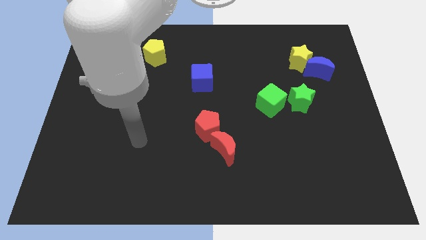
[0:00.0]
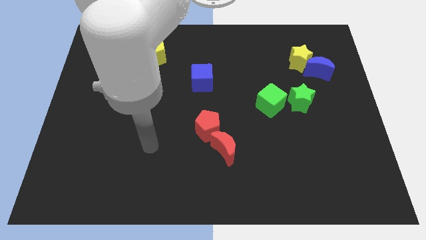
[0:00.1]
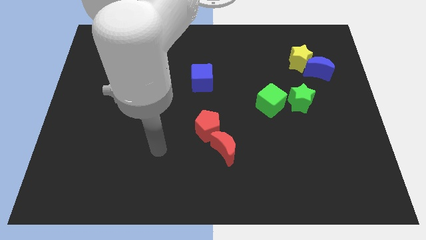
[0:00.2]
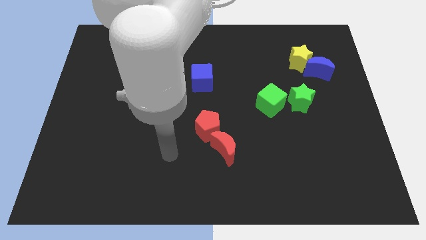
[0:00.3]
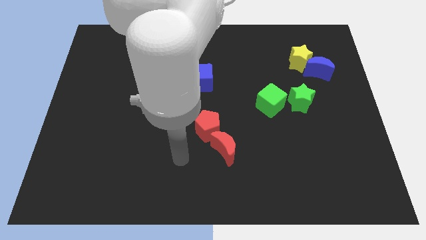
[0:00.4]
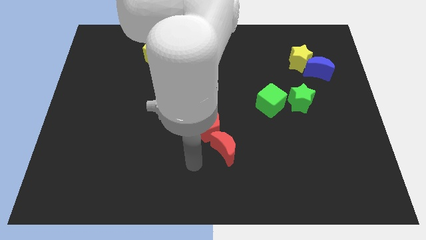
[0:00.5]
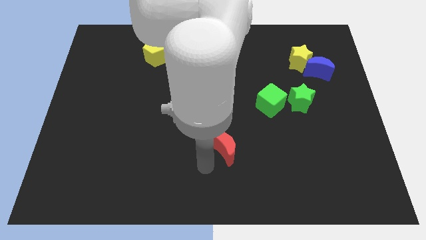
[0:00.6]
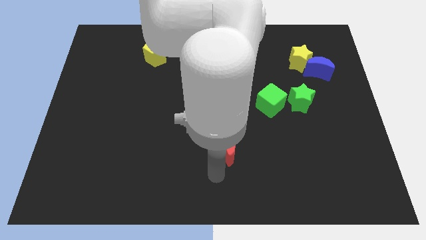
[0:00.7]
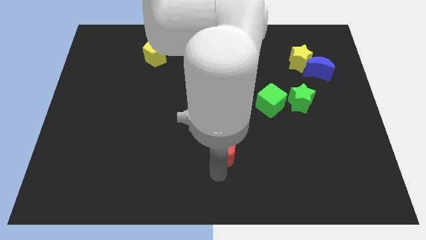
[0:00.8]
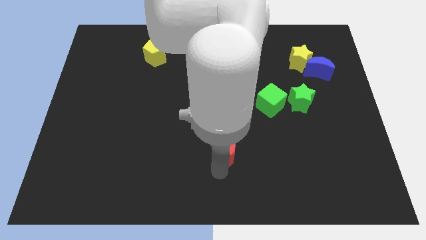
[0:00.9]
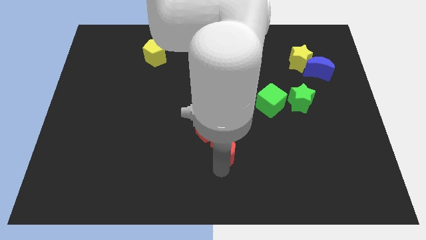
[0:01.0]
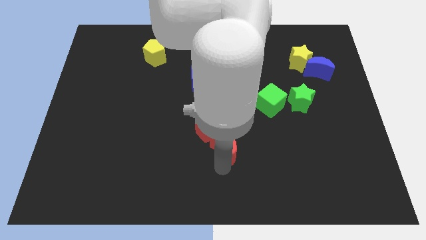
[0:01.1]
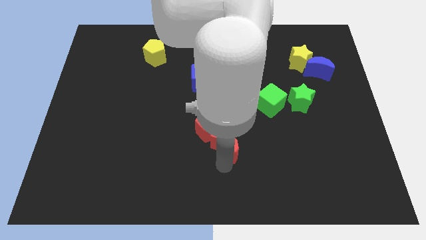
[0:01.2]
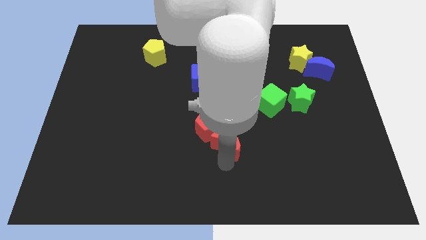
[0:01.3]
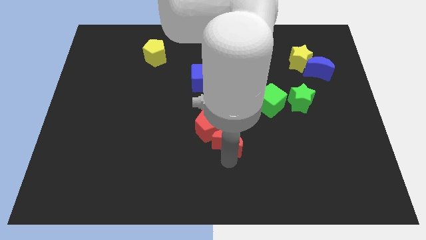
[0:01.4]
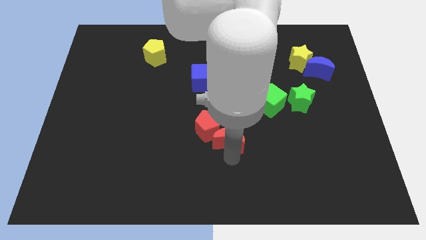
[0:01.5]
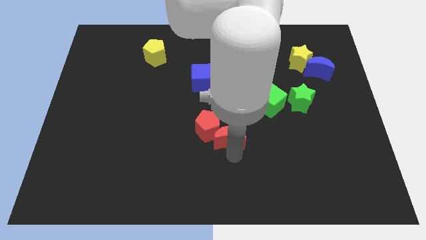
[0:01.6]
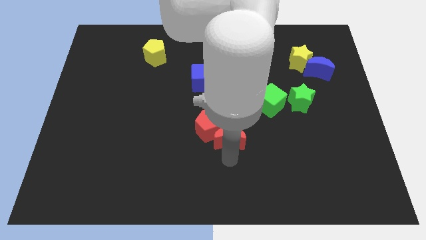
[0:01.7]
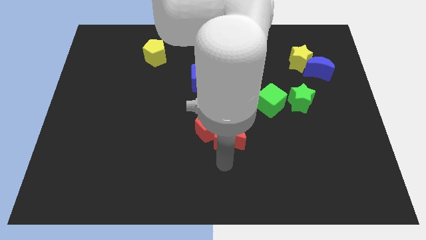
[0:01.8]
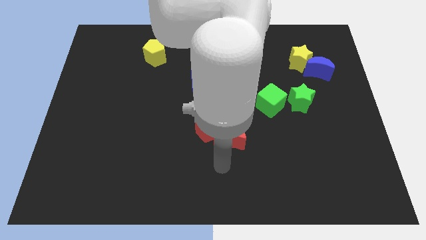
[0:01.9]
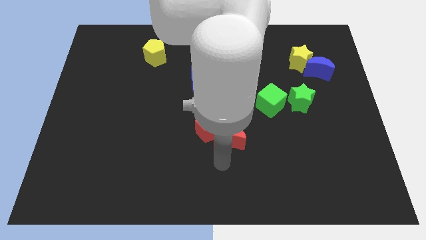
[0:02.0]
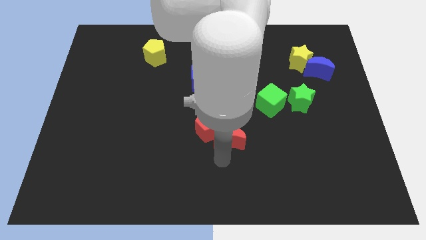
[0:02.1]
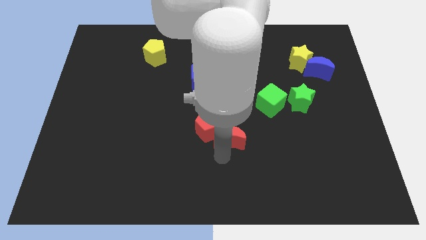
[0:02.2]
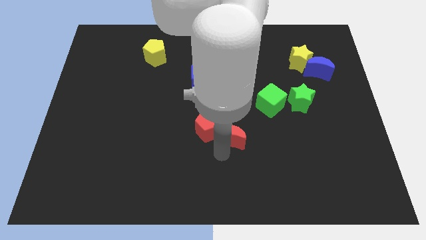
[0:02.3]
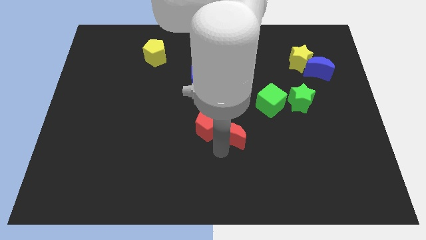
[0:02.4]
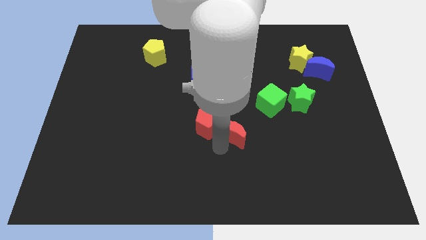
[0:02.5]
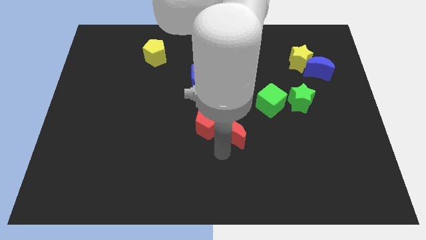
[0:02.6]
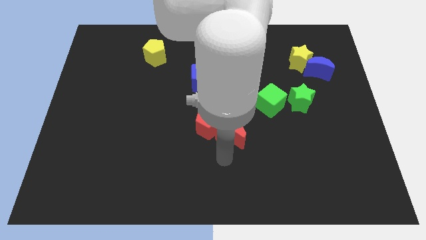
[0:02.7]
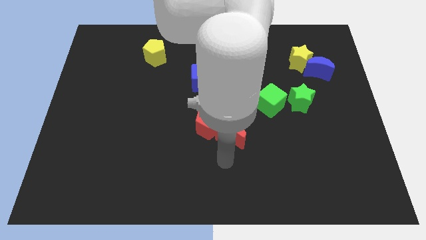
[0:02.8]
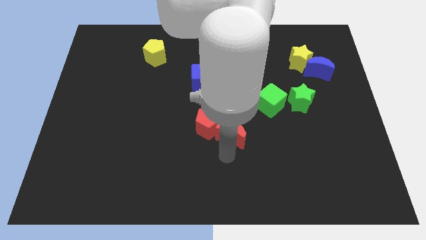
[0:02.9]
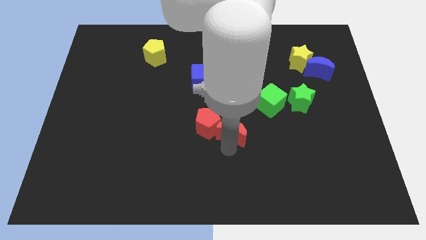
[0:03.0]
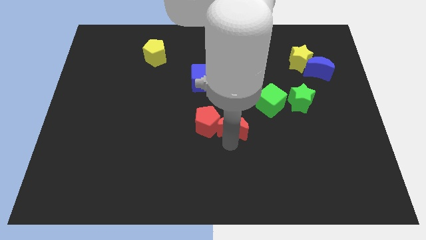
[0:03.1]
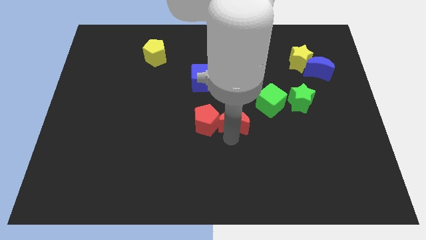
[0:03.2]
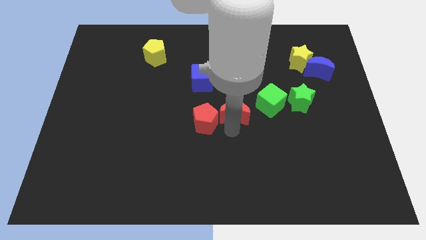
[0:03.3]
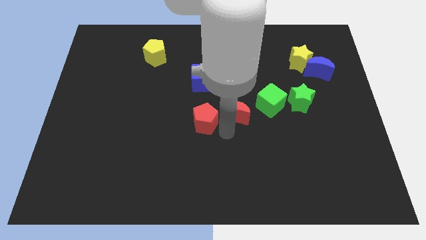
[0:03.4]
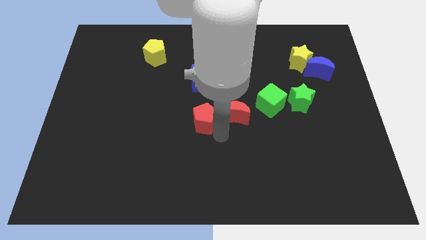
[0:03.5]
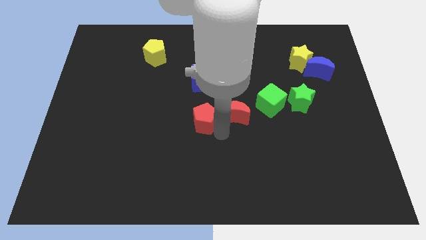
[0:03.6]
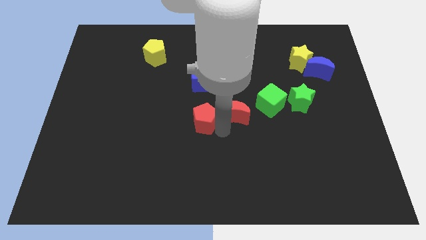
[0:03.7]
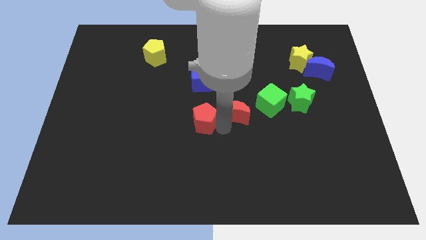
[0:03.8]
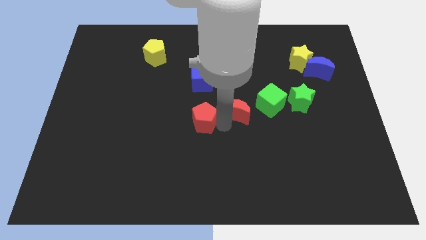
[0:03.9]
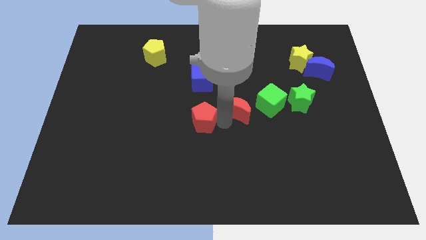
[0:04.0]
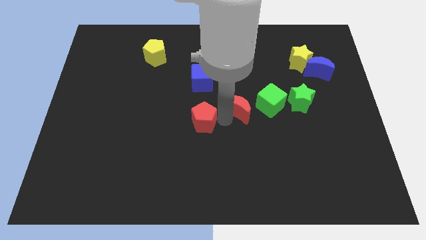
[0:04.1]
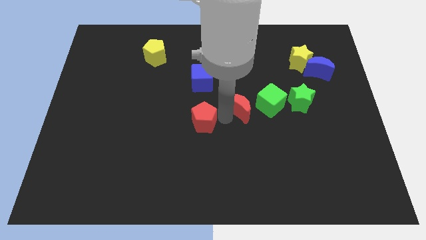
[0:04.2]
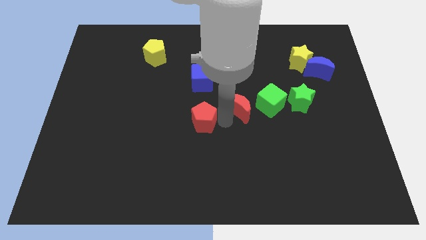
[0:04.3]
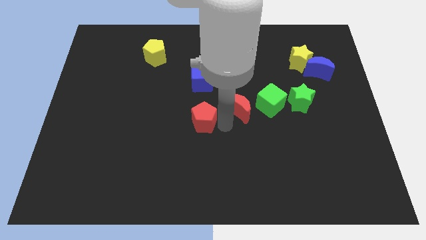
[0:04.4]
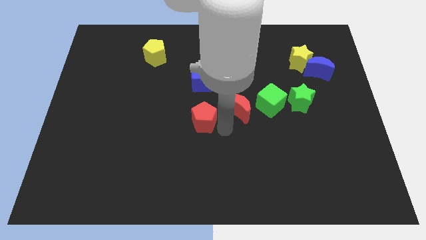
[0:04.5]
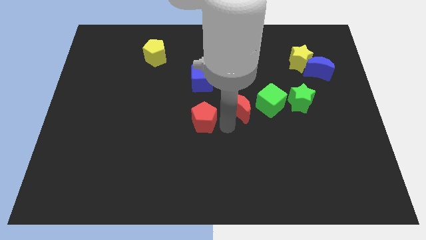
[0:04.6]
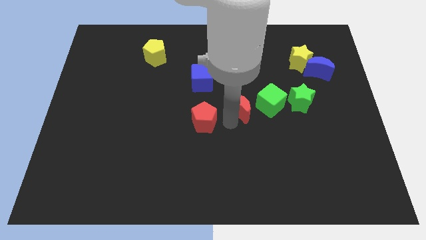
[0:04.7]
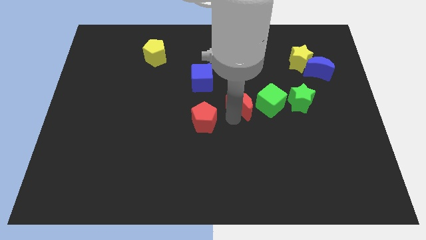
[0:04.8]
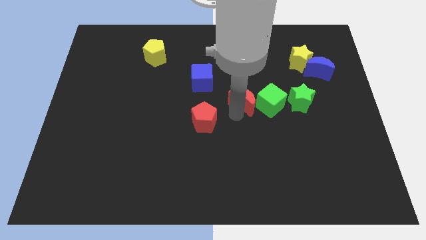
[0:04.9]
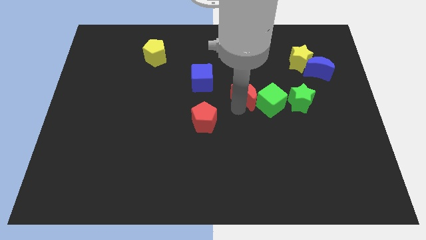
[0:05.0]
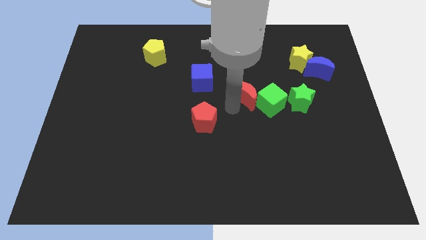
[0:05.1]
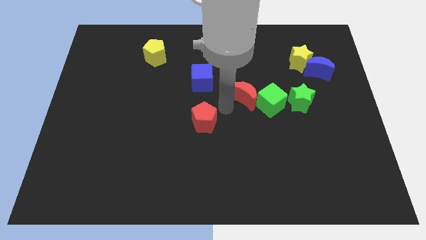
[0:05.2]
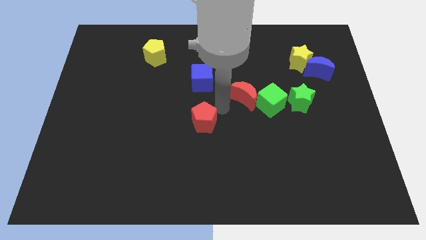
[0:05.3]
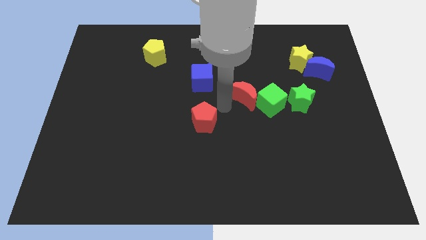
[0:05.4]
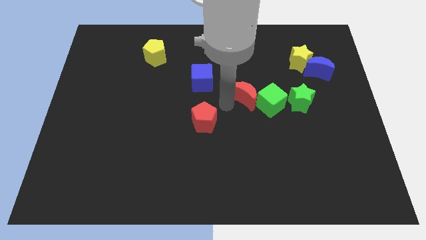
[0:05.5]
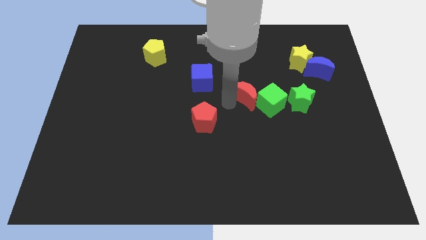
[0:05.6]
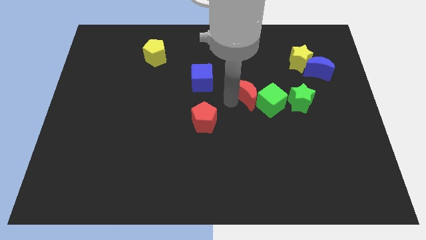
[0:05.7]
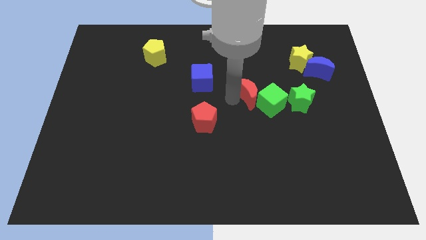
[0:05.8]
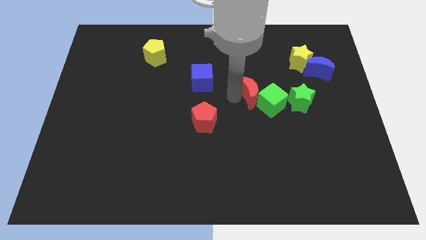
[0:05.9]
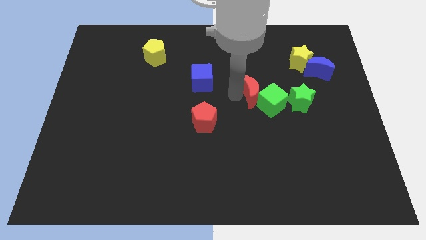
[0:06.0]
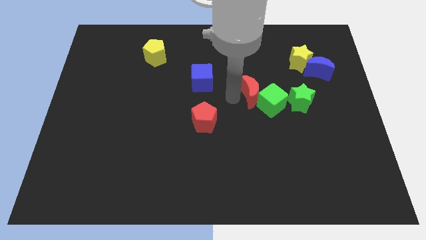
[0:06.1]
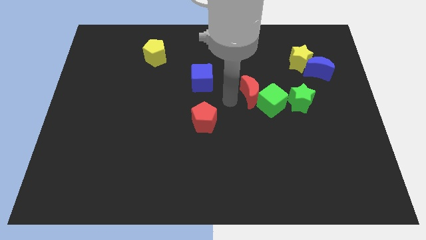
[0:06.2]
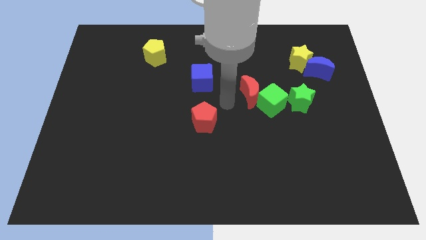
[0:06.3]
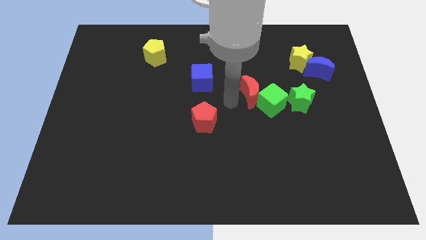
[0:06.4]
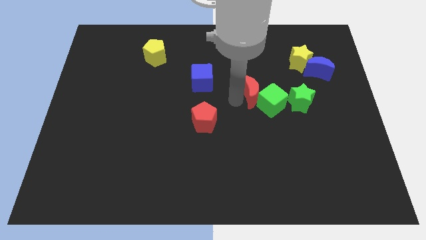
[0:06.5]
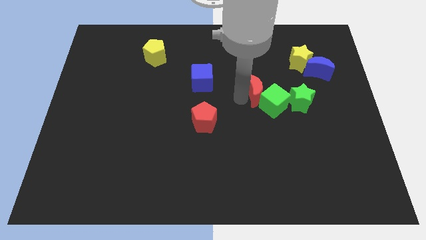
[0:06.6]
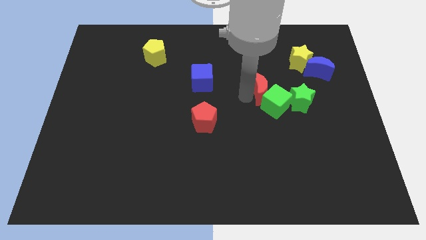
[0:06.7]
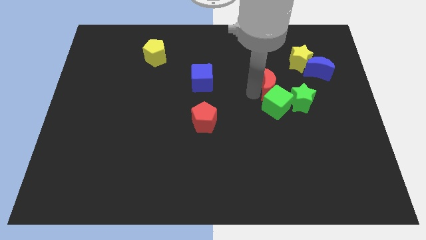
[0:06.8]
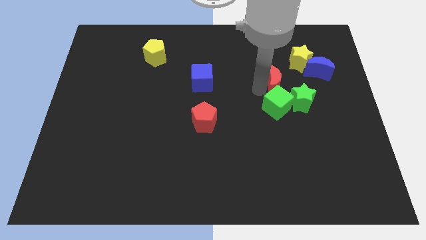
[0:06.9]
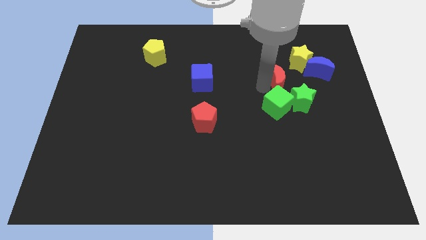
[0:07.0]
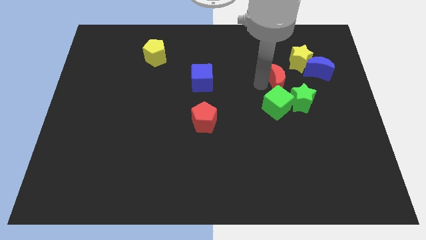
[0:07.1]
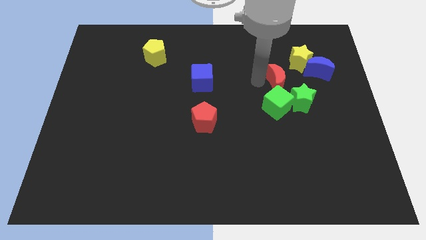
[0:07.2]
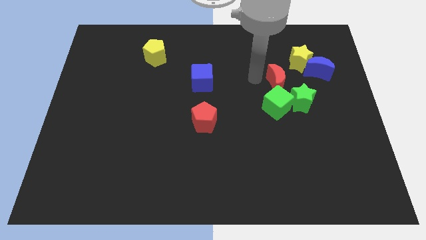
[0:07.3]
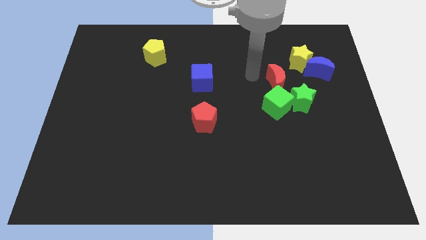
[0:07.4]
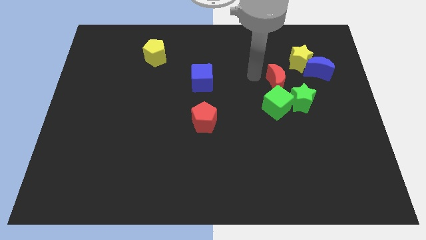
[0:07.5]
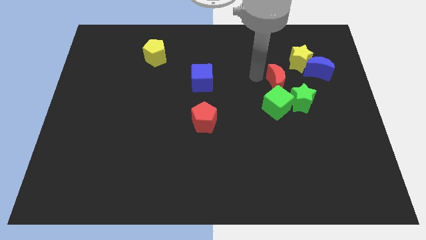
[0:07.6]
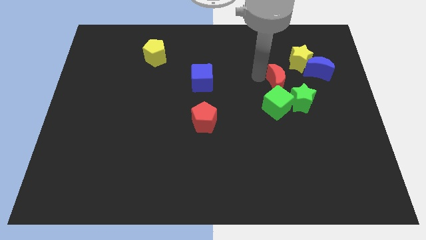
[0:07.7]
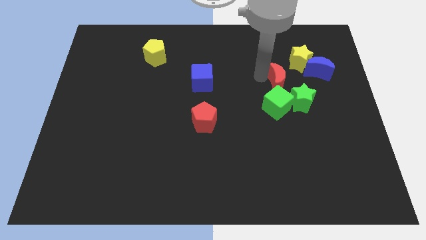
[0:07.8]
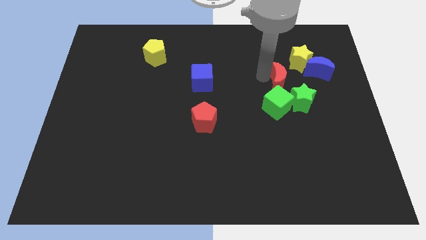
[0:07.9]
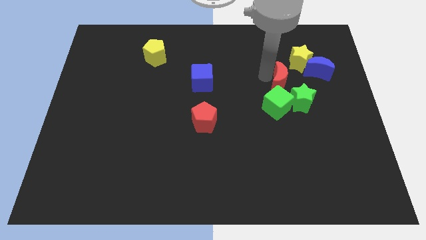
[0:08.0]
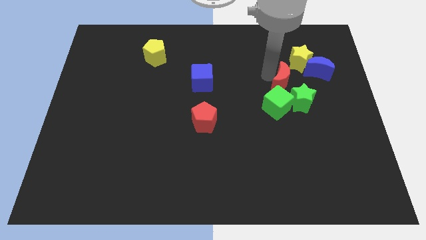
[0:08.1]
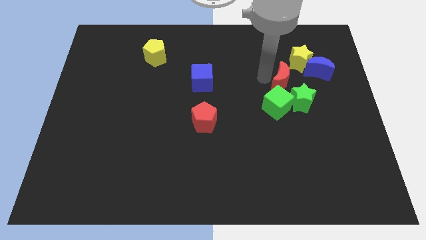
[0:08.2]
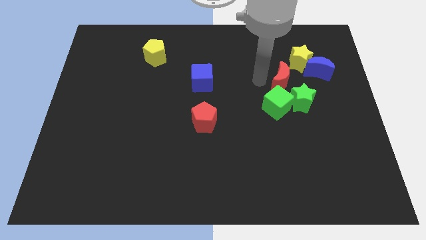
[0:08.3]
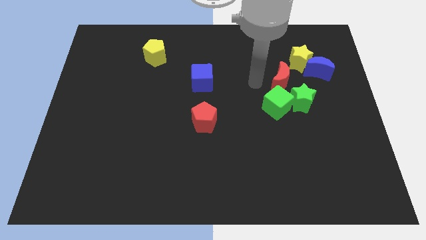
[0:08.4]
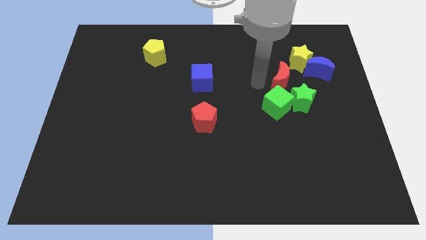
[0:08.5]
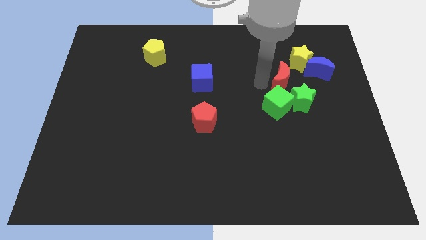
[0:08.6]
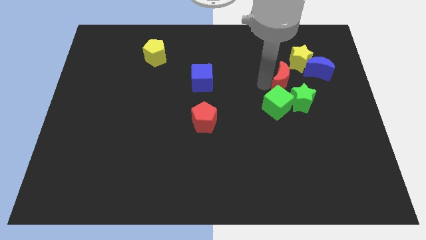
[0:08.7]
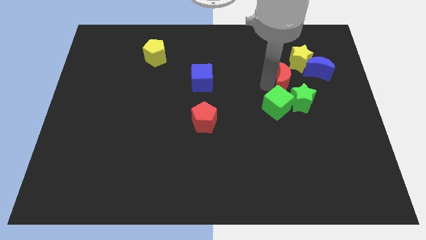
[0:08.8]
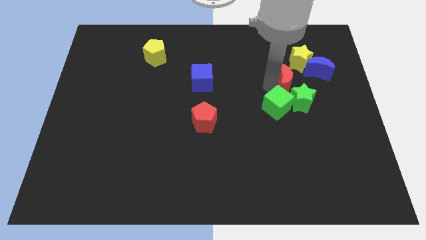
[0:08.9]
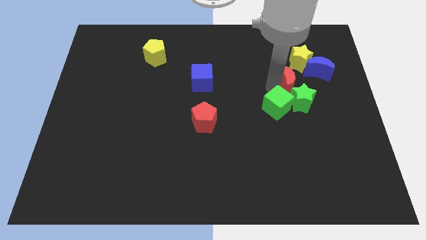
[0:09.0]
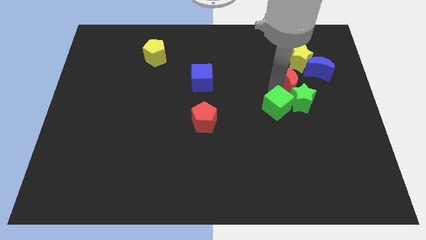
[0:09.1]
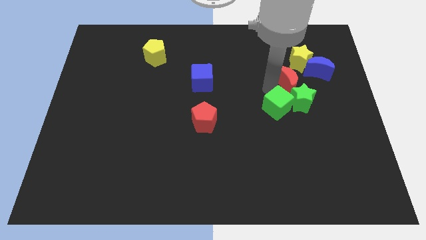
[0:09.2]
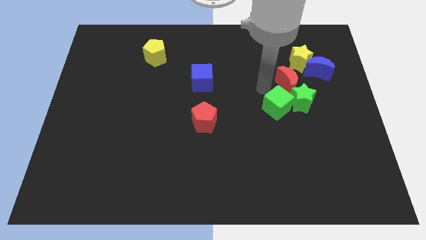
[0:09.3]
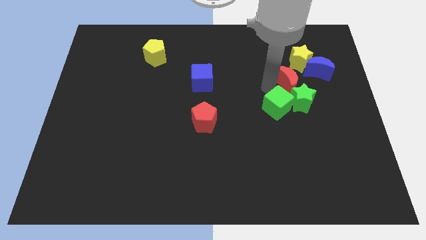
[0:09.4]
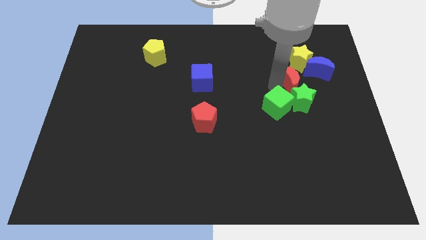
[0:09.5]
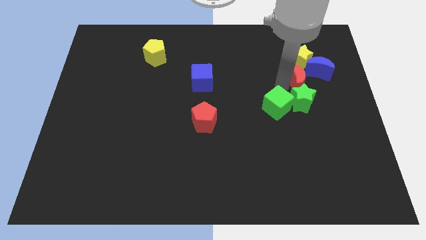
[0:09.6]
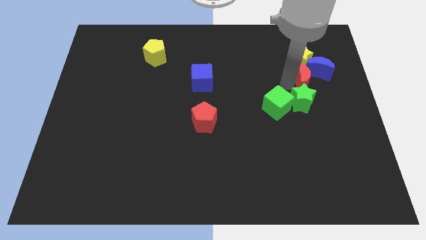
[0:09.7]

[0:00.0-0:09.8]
push the red moon towards the blue moon
